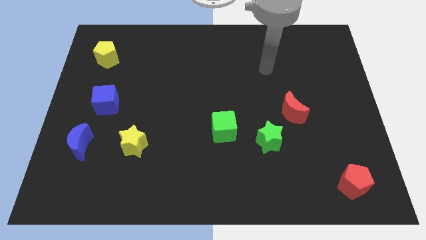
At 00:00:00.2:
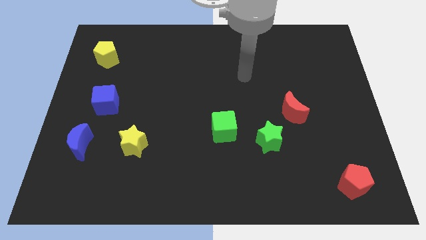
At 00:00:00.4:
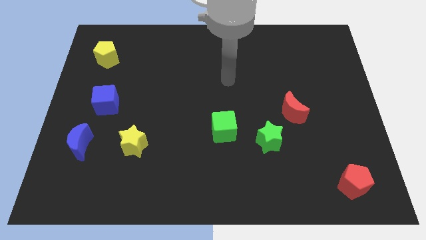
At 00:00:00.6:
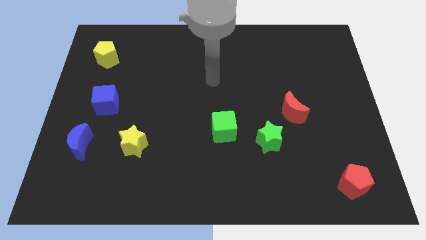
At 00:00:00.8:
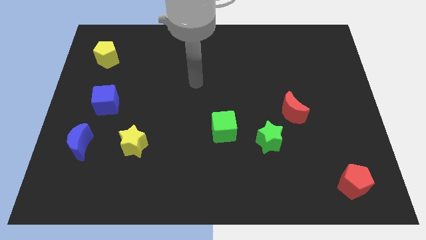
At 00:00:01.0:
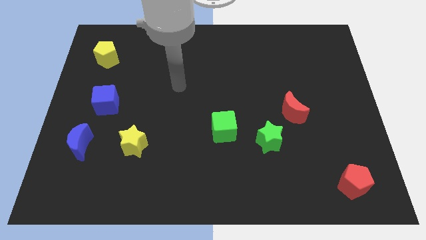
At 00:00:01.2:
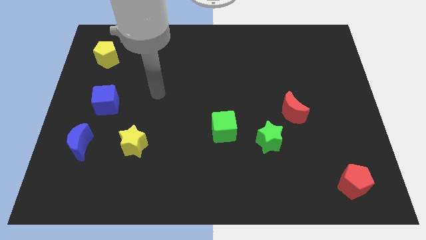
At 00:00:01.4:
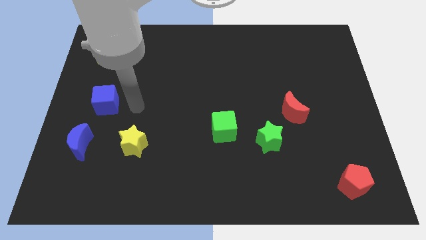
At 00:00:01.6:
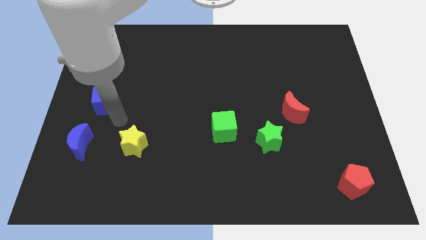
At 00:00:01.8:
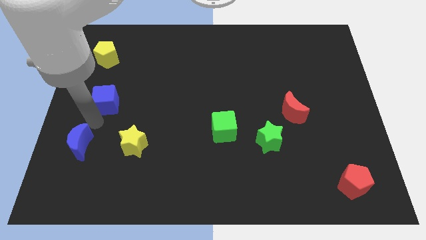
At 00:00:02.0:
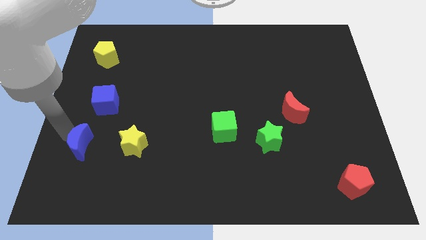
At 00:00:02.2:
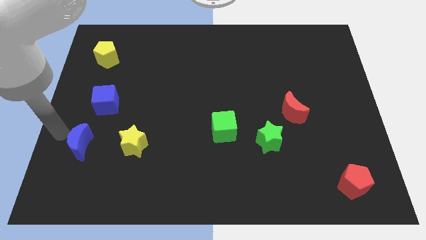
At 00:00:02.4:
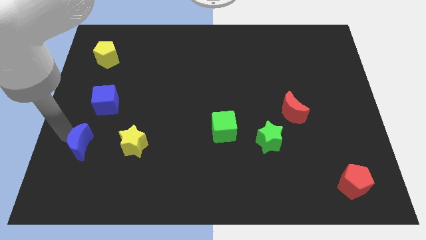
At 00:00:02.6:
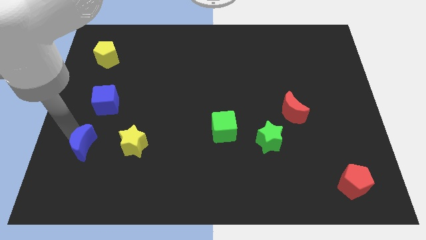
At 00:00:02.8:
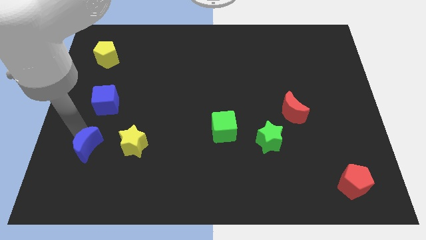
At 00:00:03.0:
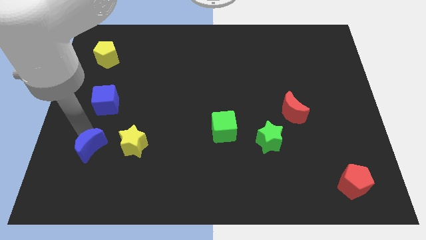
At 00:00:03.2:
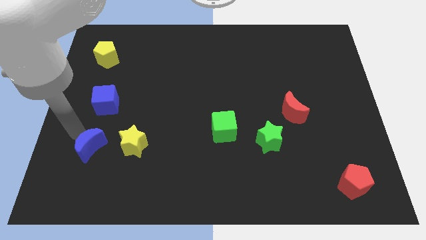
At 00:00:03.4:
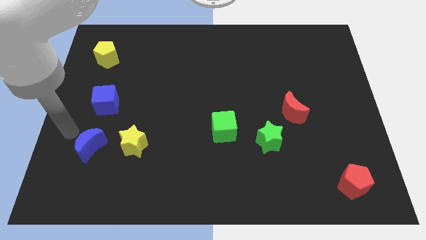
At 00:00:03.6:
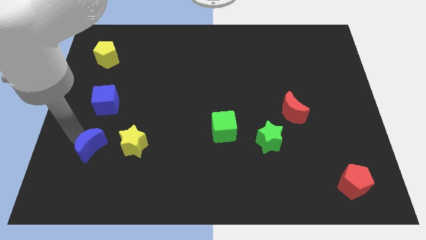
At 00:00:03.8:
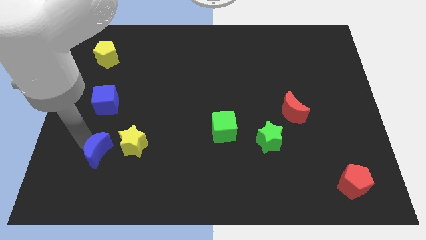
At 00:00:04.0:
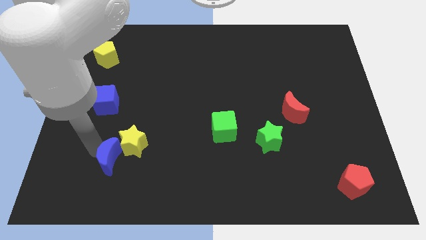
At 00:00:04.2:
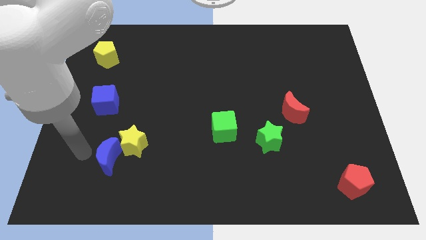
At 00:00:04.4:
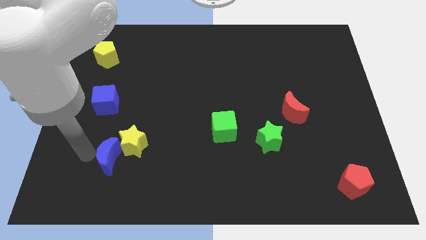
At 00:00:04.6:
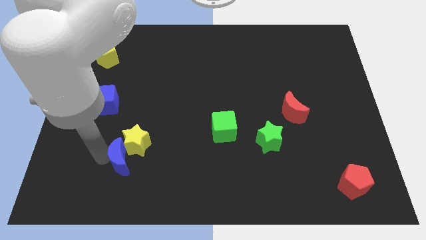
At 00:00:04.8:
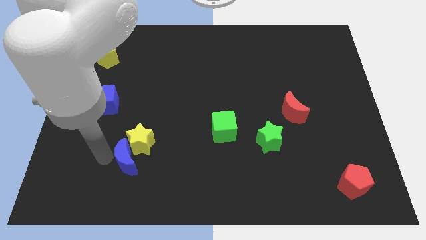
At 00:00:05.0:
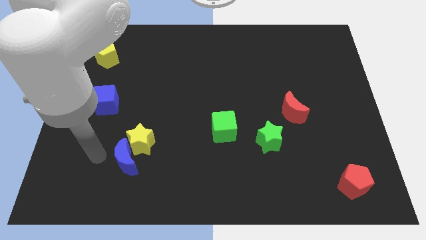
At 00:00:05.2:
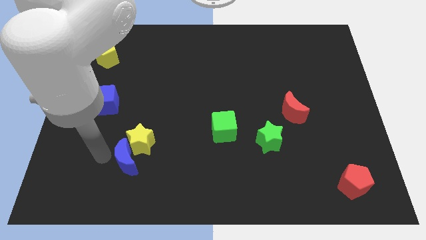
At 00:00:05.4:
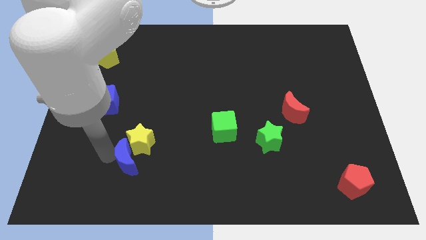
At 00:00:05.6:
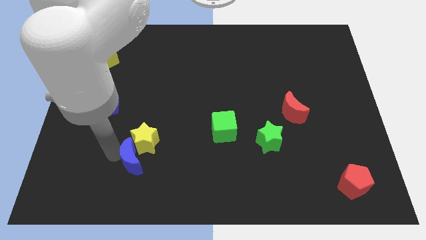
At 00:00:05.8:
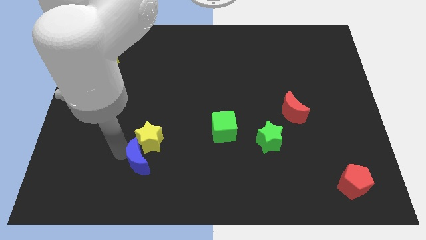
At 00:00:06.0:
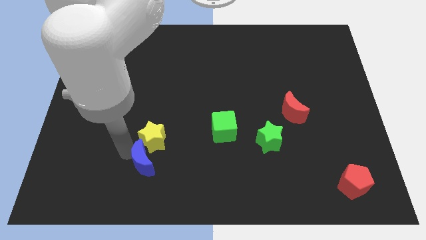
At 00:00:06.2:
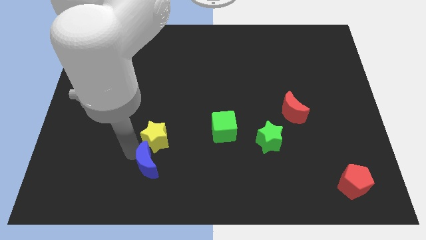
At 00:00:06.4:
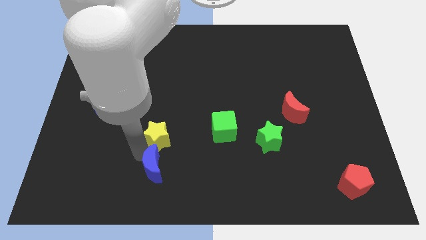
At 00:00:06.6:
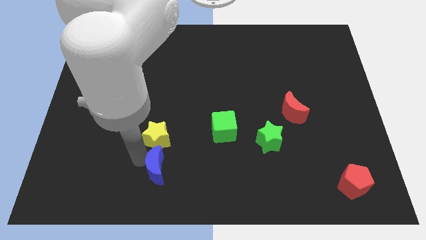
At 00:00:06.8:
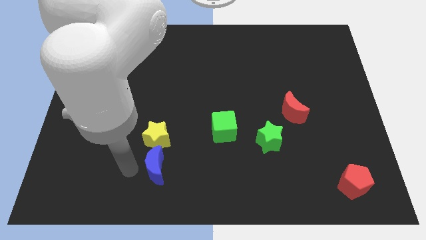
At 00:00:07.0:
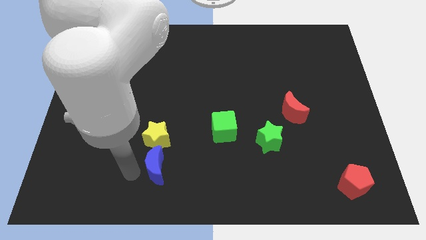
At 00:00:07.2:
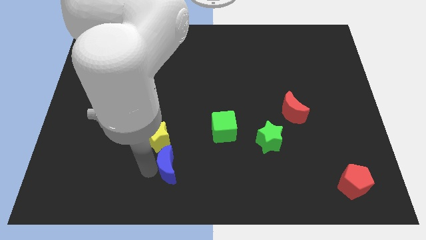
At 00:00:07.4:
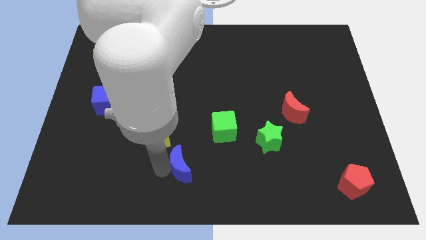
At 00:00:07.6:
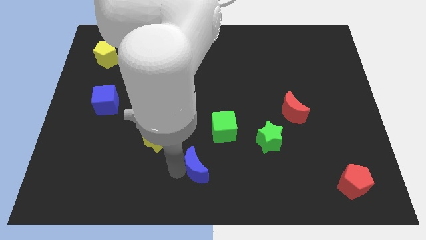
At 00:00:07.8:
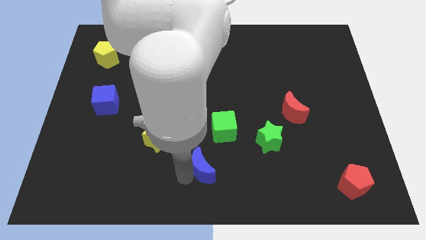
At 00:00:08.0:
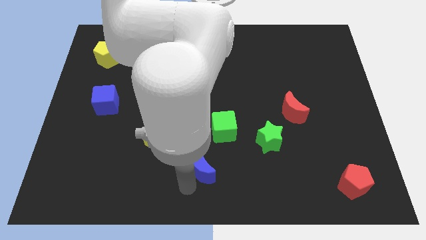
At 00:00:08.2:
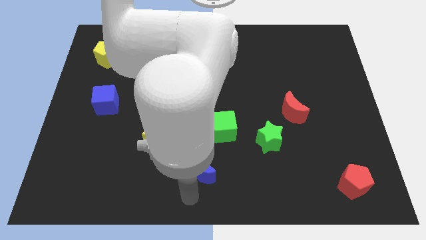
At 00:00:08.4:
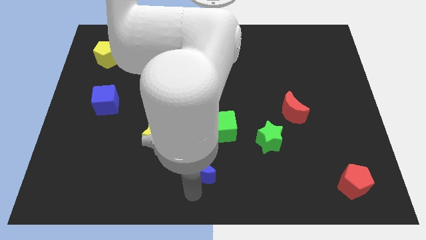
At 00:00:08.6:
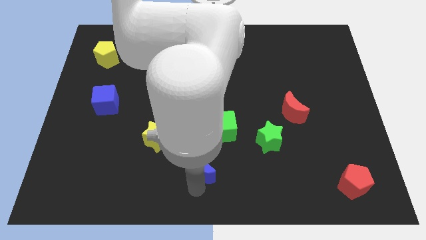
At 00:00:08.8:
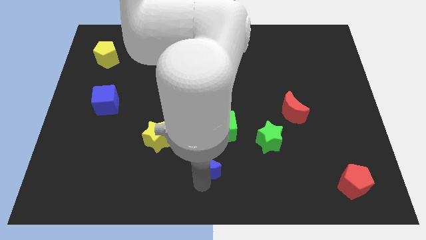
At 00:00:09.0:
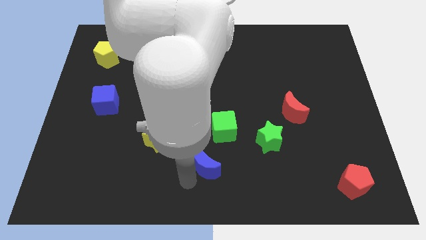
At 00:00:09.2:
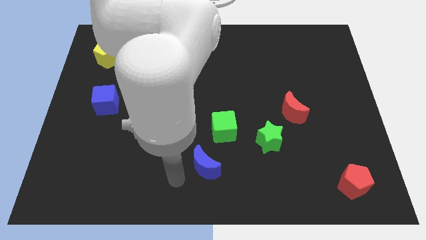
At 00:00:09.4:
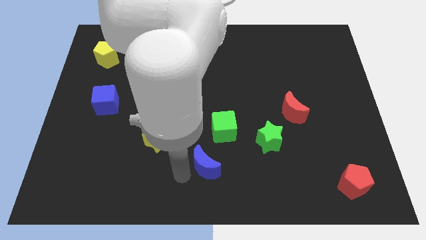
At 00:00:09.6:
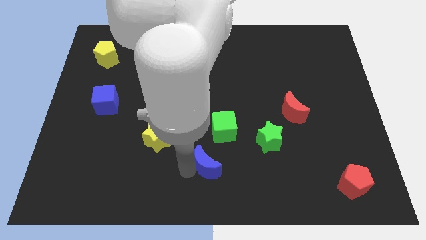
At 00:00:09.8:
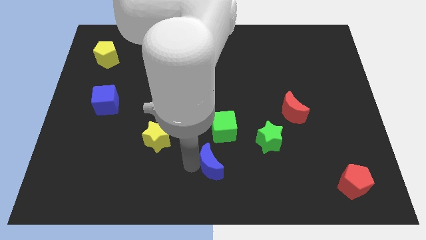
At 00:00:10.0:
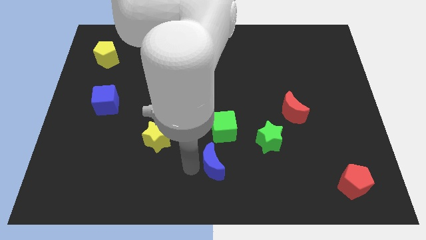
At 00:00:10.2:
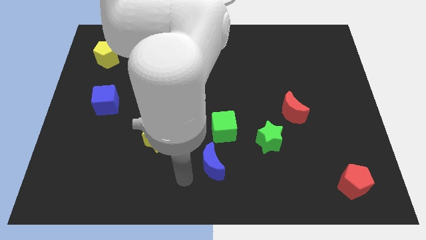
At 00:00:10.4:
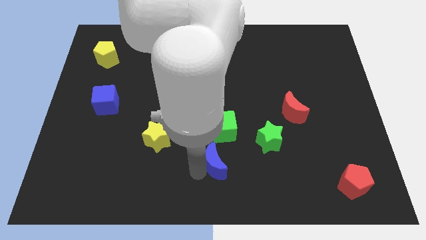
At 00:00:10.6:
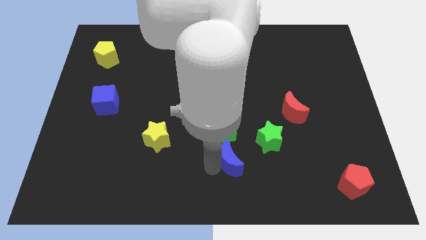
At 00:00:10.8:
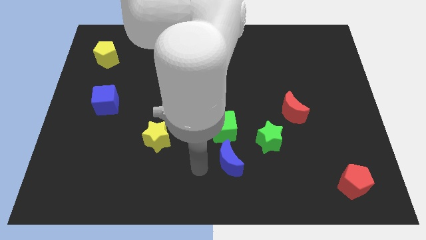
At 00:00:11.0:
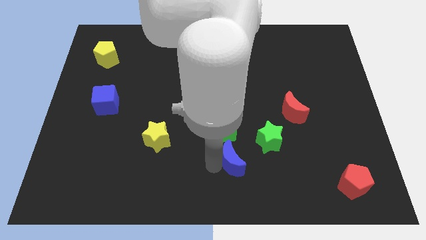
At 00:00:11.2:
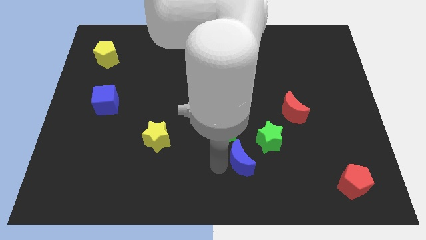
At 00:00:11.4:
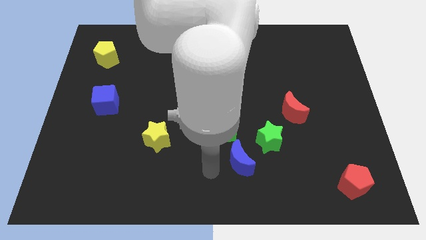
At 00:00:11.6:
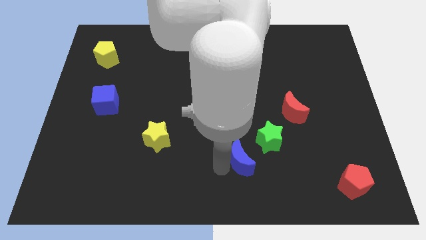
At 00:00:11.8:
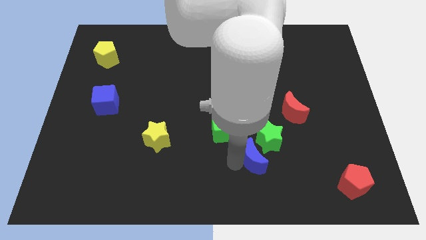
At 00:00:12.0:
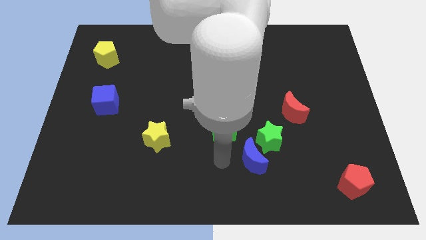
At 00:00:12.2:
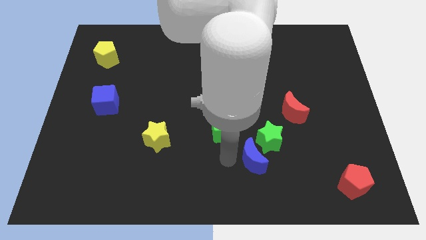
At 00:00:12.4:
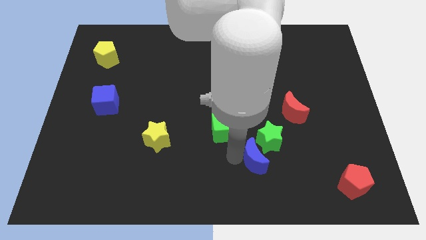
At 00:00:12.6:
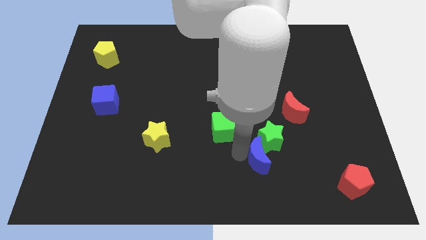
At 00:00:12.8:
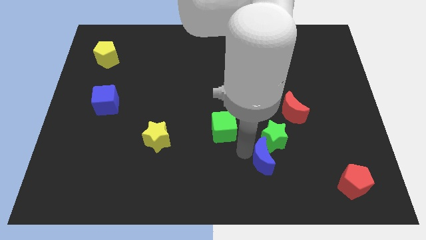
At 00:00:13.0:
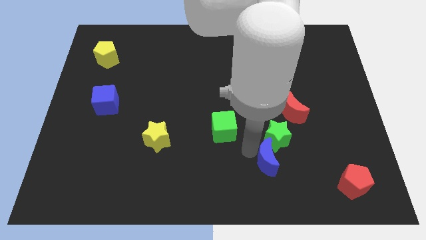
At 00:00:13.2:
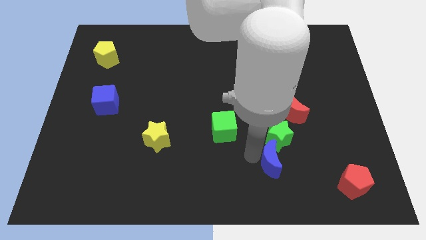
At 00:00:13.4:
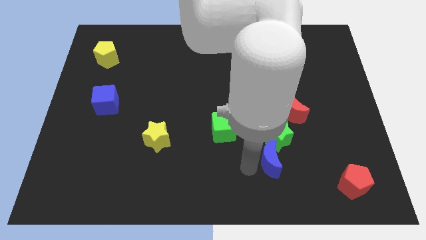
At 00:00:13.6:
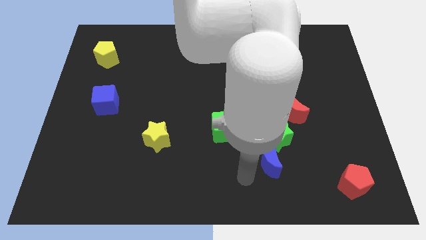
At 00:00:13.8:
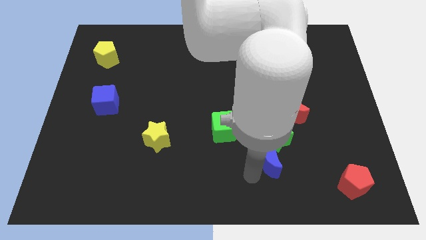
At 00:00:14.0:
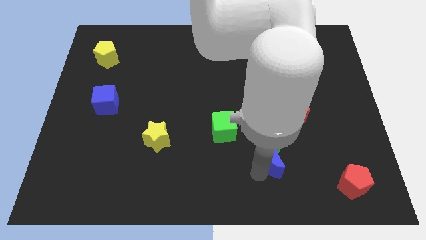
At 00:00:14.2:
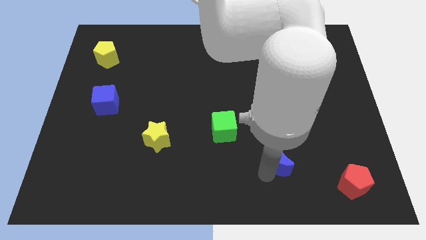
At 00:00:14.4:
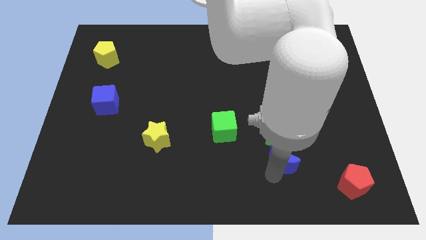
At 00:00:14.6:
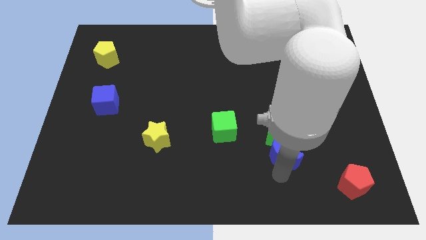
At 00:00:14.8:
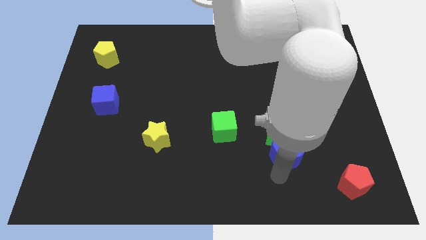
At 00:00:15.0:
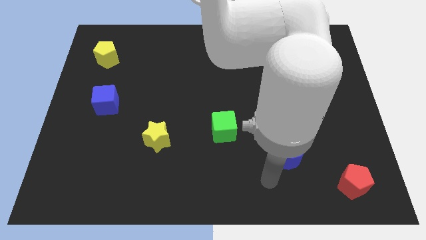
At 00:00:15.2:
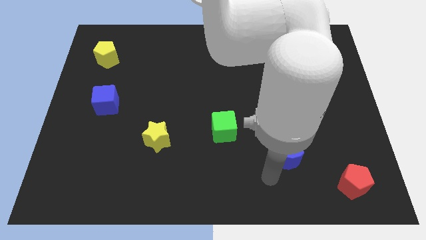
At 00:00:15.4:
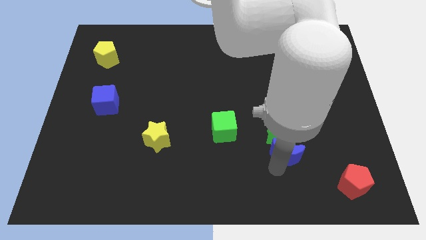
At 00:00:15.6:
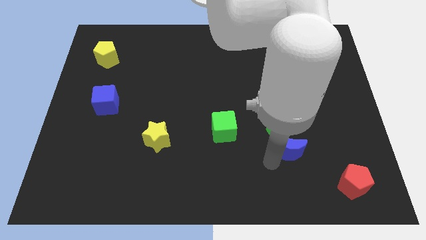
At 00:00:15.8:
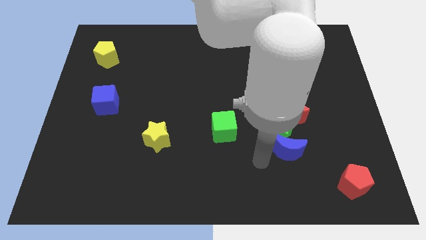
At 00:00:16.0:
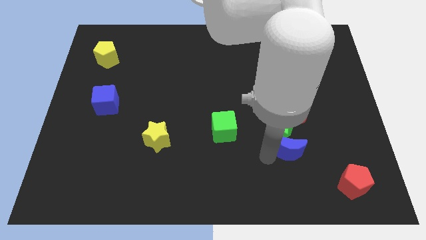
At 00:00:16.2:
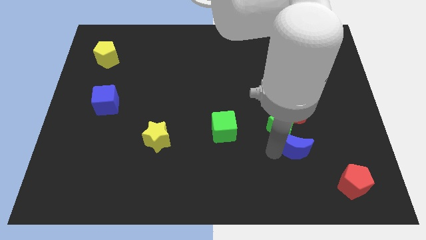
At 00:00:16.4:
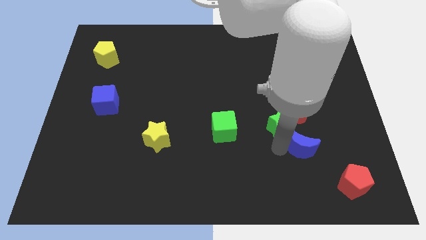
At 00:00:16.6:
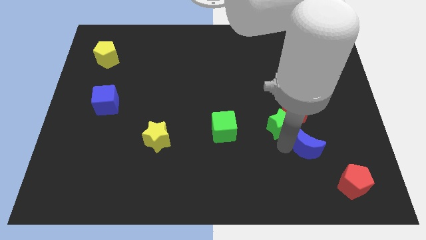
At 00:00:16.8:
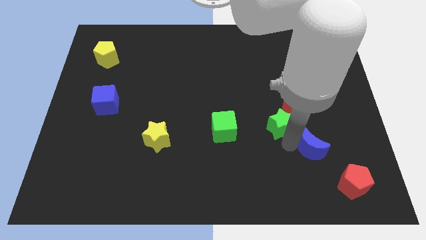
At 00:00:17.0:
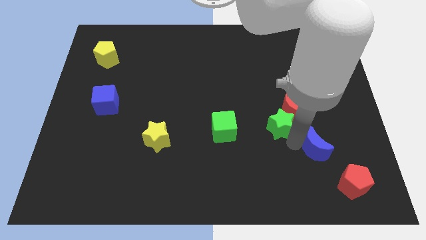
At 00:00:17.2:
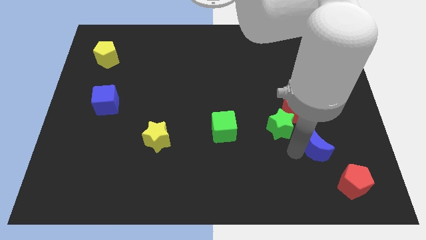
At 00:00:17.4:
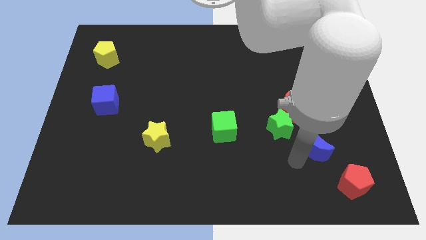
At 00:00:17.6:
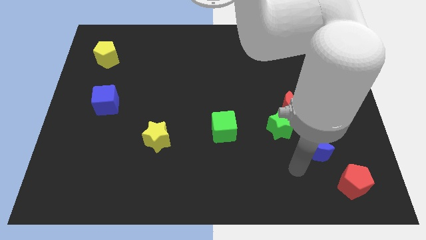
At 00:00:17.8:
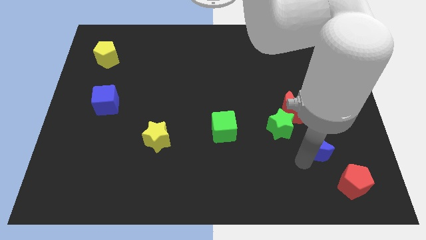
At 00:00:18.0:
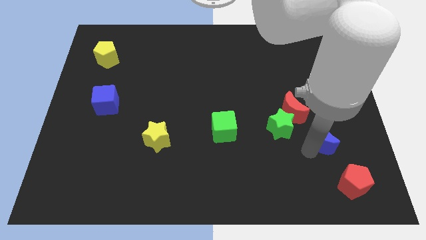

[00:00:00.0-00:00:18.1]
push the blue moon to the top side of the red pentagon
